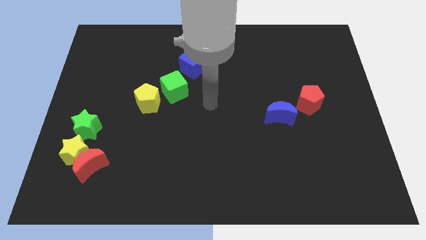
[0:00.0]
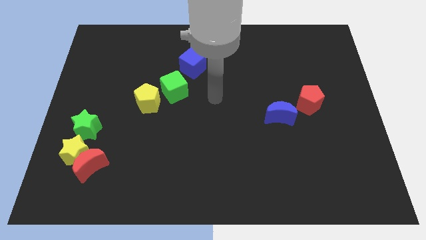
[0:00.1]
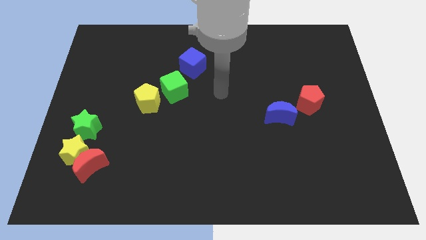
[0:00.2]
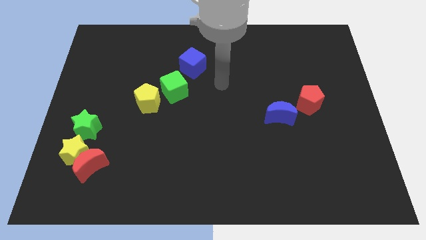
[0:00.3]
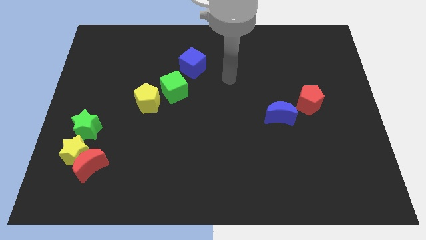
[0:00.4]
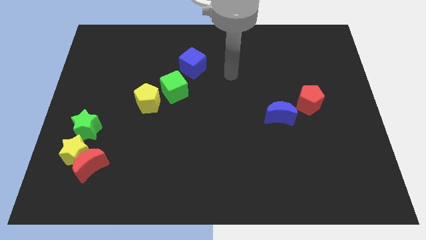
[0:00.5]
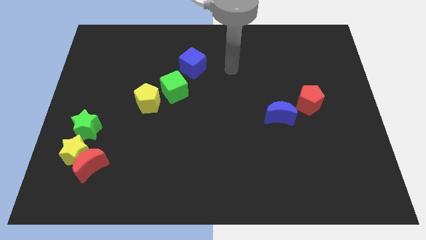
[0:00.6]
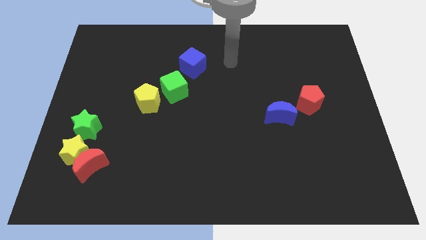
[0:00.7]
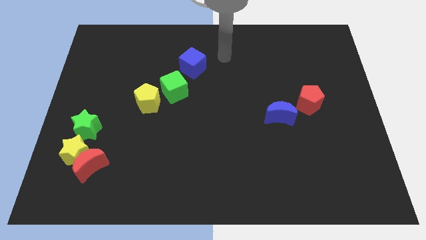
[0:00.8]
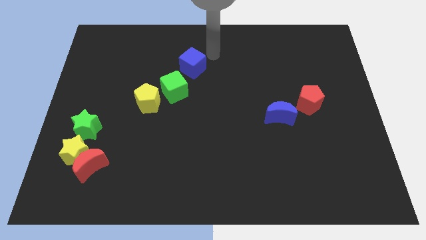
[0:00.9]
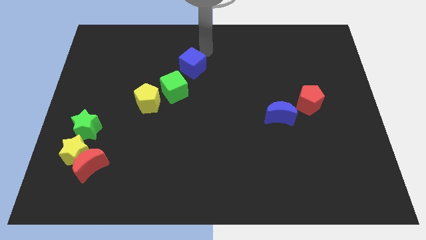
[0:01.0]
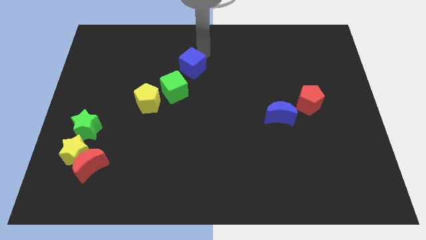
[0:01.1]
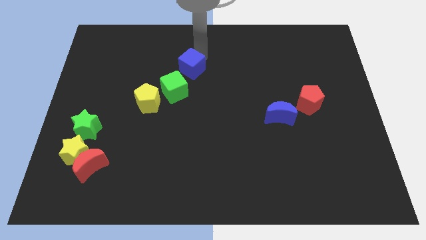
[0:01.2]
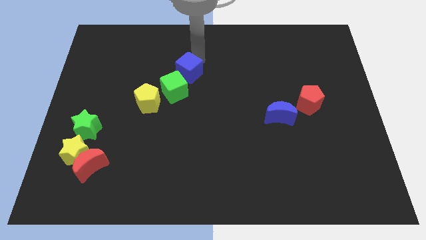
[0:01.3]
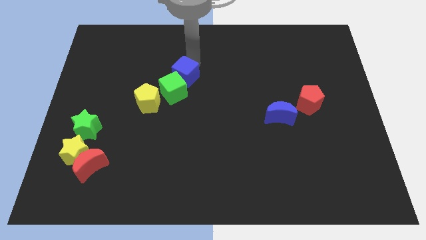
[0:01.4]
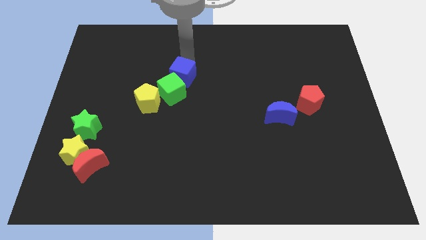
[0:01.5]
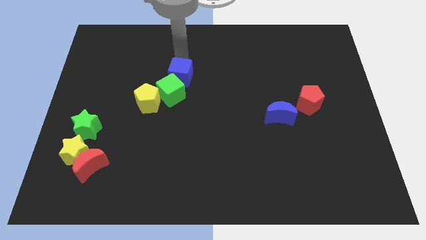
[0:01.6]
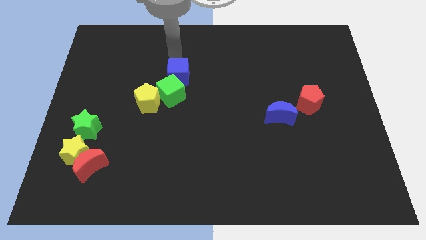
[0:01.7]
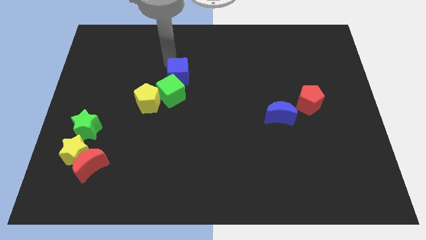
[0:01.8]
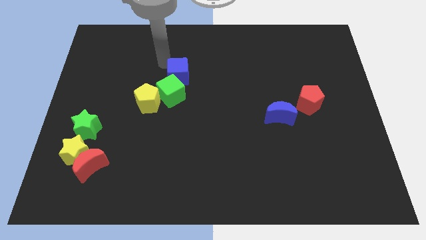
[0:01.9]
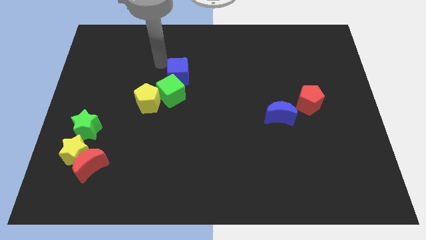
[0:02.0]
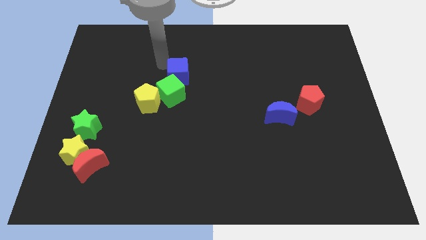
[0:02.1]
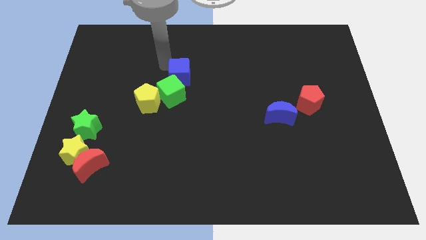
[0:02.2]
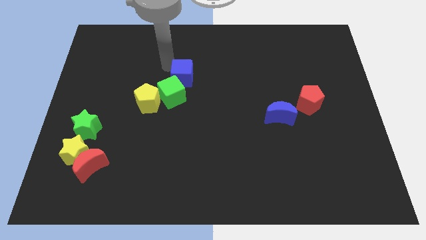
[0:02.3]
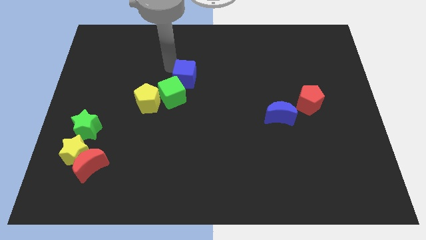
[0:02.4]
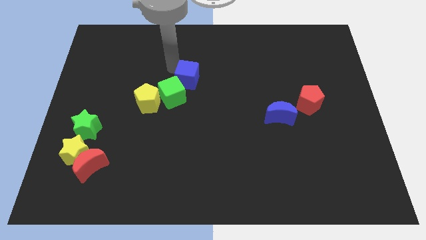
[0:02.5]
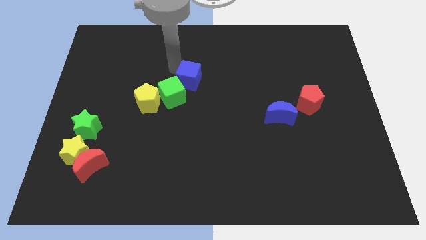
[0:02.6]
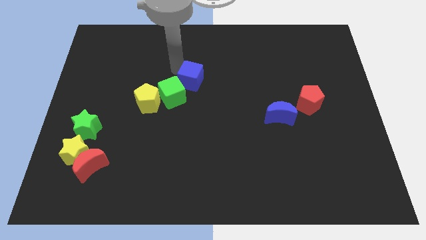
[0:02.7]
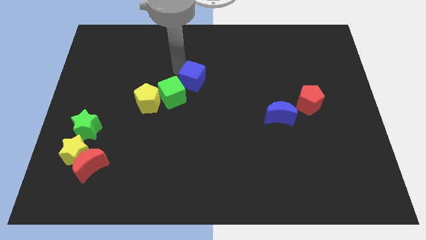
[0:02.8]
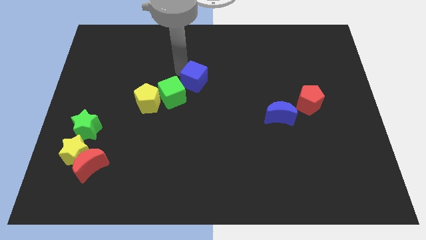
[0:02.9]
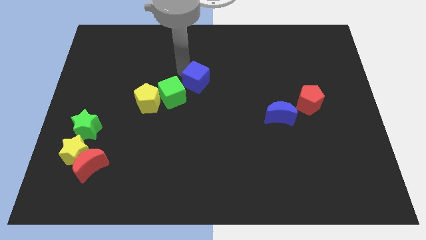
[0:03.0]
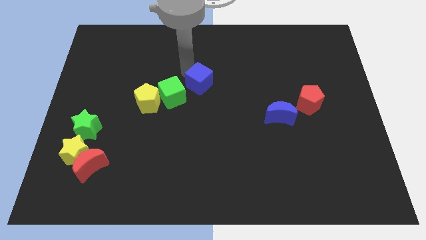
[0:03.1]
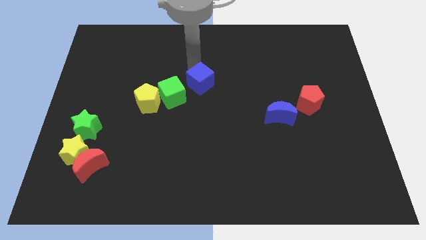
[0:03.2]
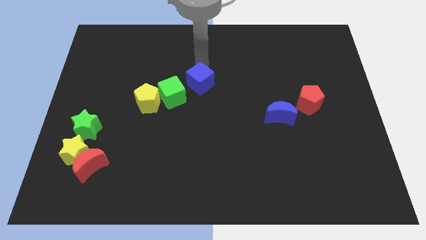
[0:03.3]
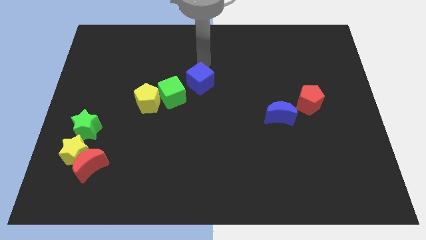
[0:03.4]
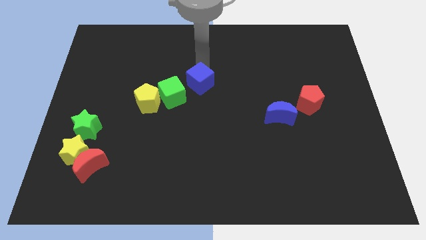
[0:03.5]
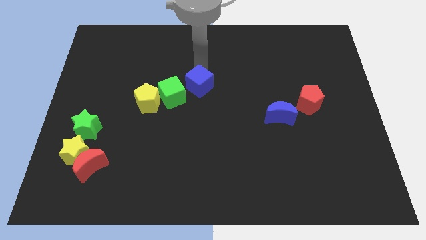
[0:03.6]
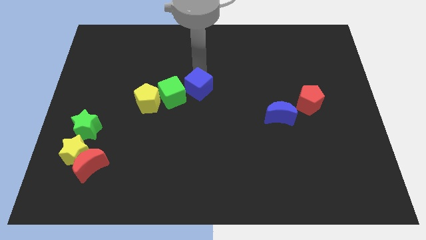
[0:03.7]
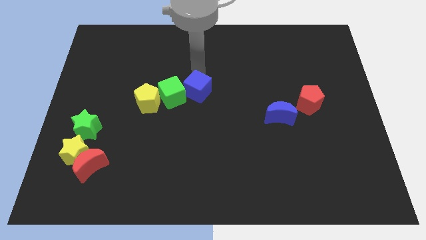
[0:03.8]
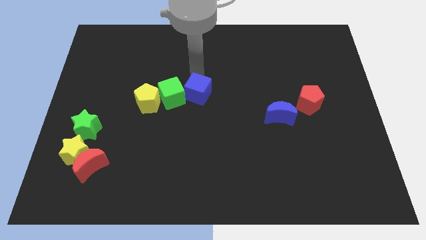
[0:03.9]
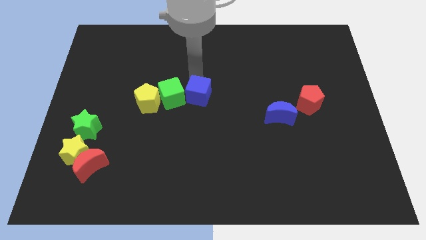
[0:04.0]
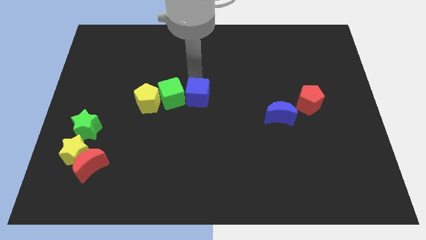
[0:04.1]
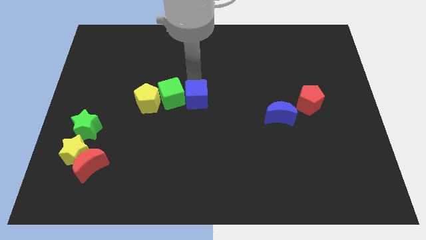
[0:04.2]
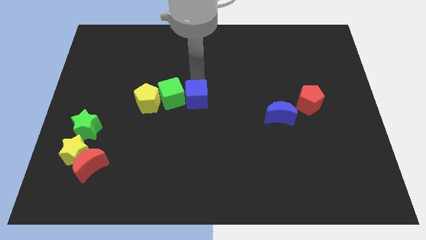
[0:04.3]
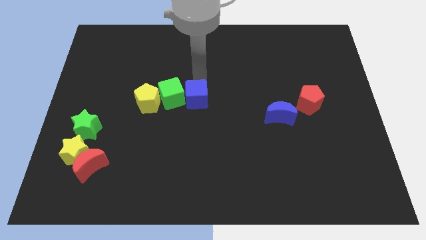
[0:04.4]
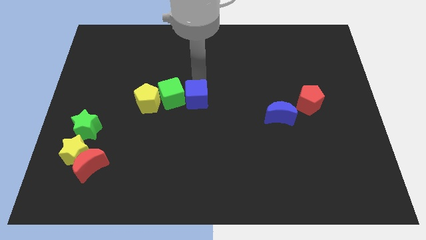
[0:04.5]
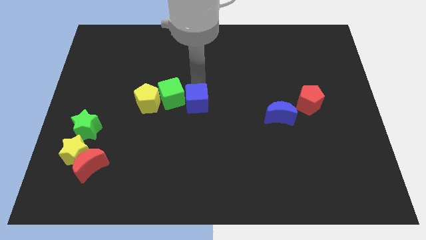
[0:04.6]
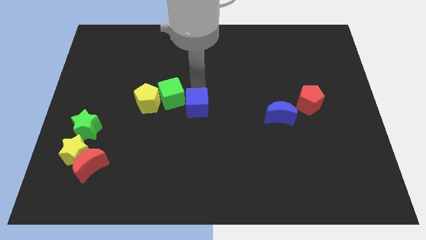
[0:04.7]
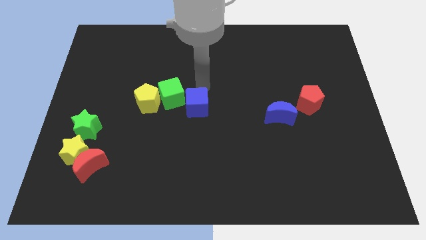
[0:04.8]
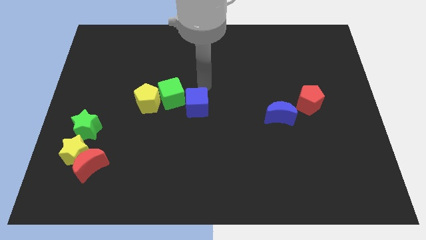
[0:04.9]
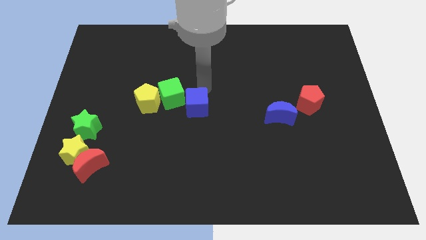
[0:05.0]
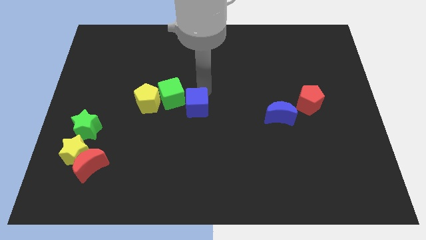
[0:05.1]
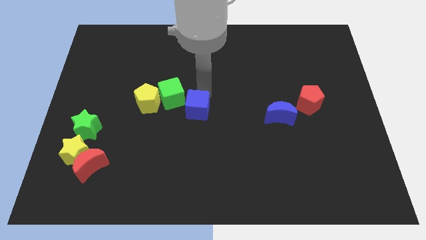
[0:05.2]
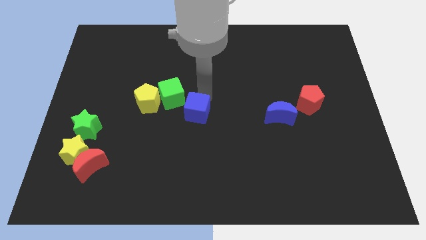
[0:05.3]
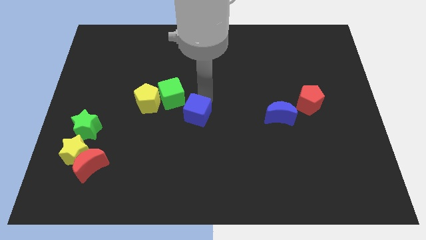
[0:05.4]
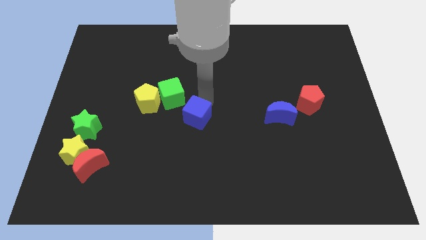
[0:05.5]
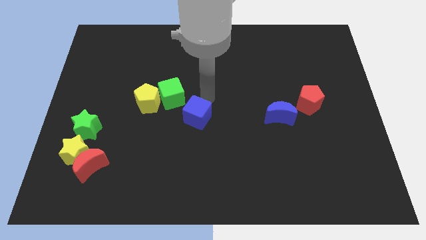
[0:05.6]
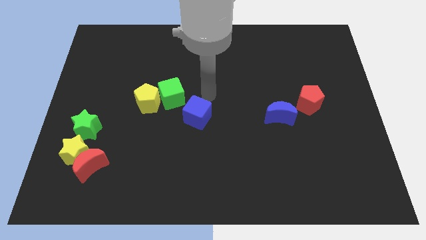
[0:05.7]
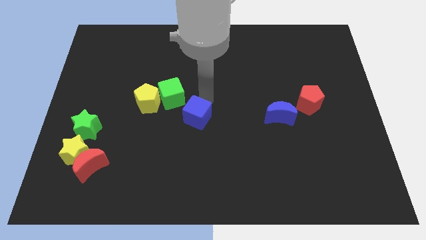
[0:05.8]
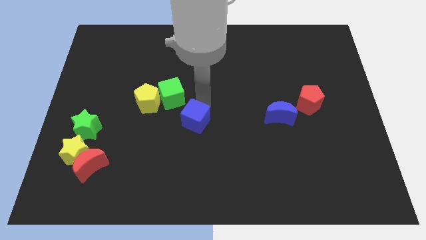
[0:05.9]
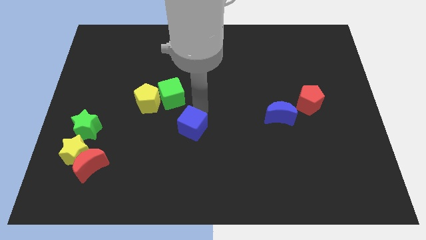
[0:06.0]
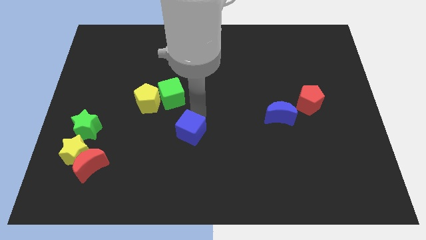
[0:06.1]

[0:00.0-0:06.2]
slide the blue cube downwards

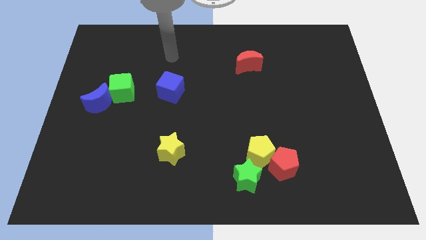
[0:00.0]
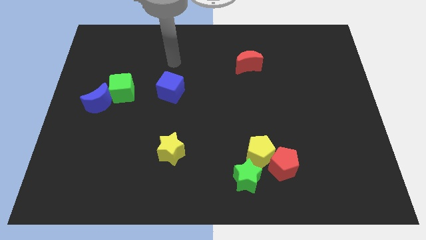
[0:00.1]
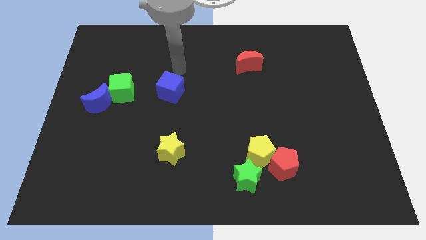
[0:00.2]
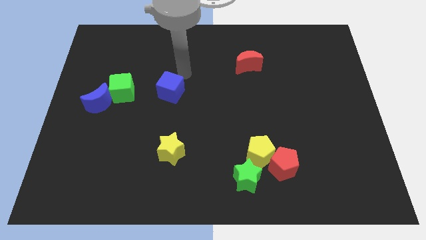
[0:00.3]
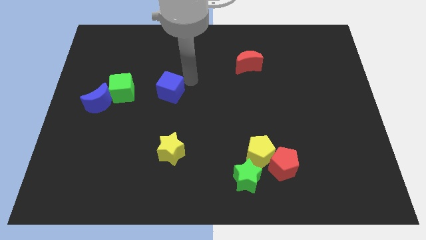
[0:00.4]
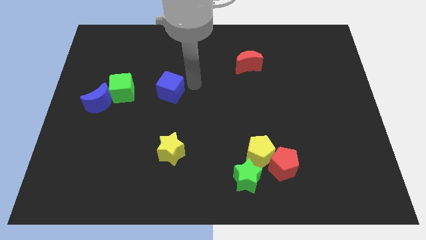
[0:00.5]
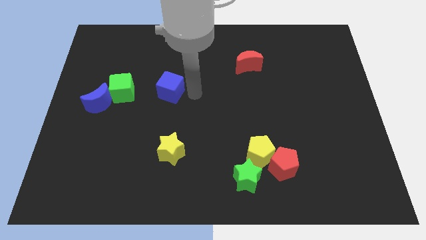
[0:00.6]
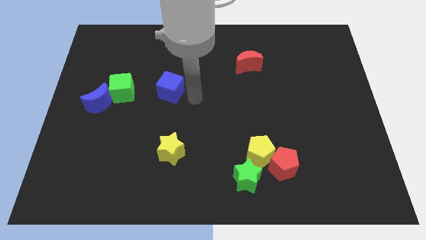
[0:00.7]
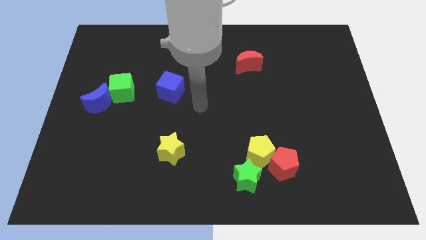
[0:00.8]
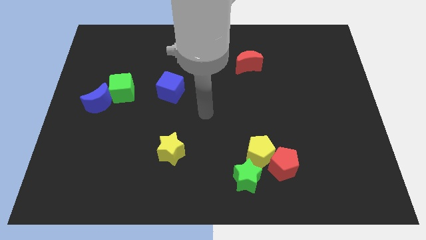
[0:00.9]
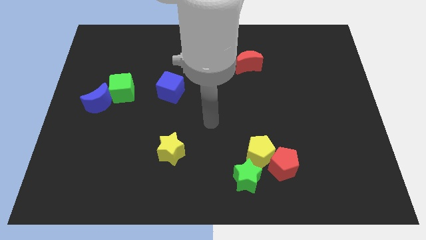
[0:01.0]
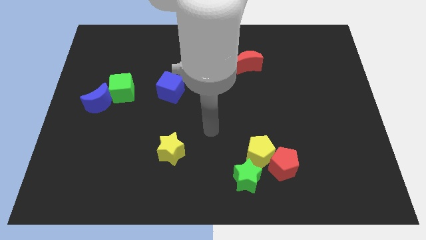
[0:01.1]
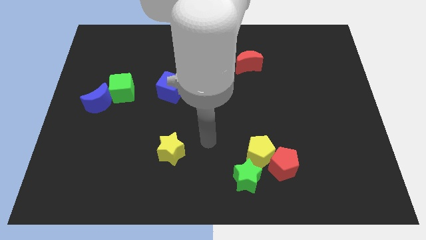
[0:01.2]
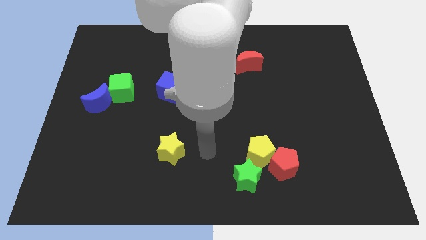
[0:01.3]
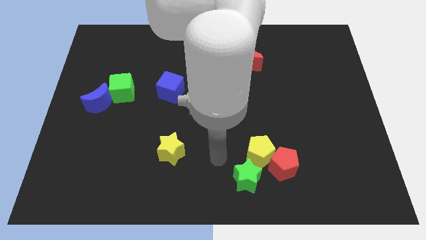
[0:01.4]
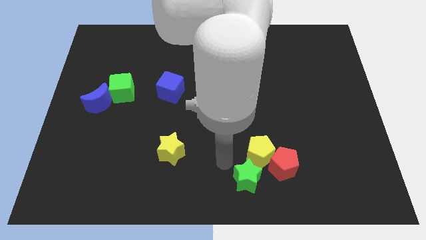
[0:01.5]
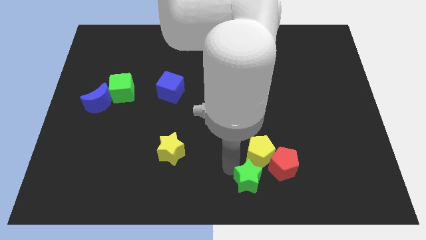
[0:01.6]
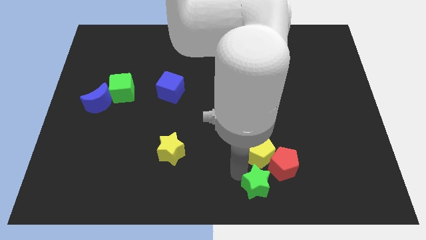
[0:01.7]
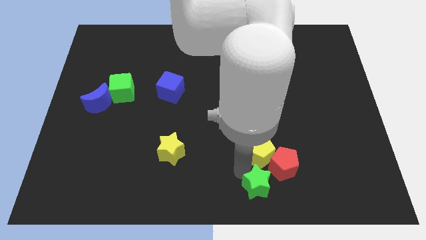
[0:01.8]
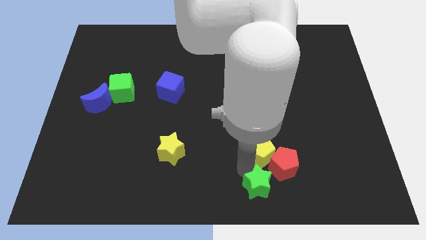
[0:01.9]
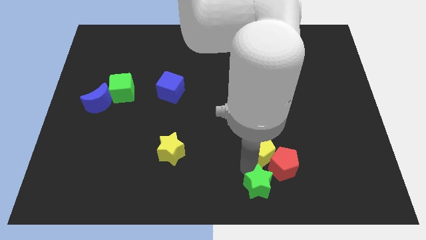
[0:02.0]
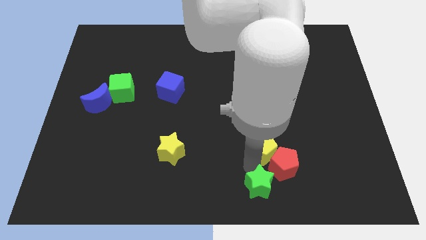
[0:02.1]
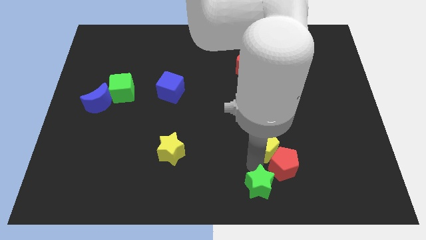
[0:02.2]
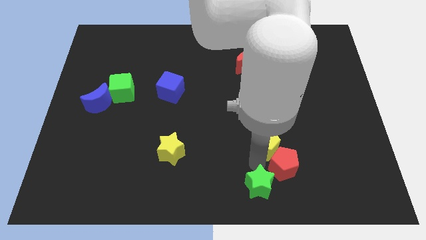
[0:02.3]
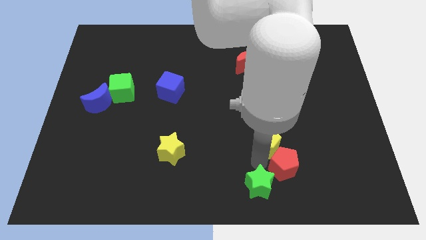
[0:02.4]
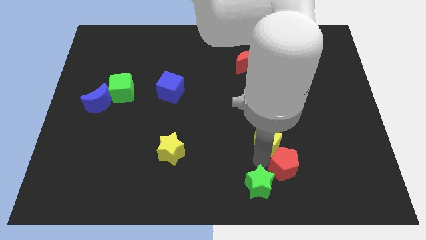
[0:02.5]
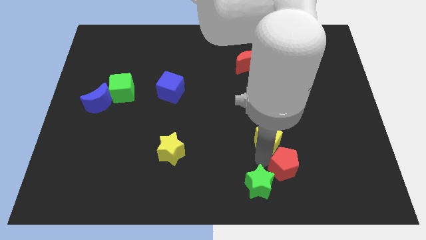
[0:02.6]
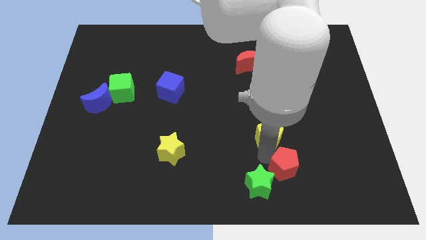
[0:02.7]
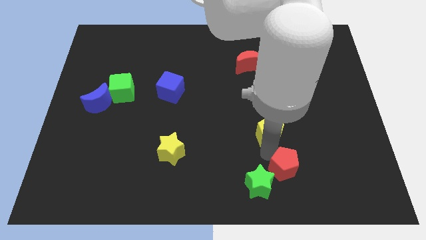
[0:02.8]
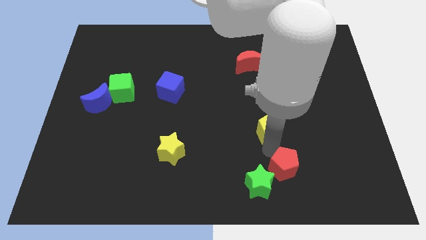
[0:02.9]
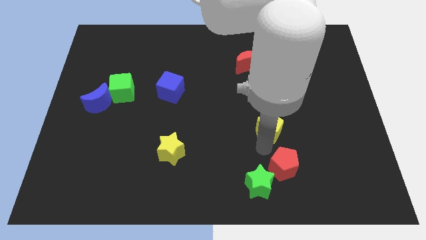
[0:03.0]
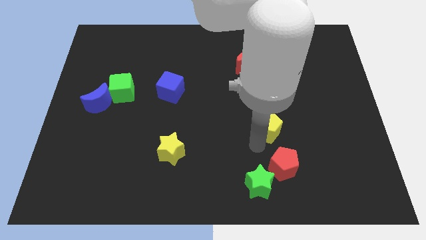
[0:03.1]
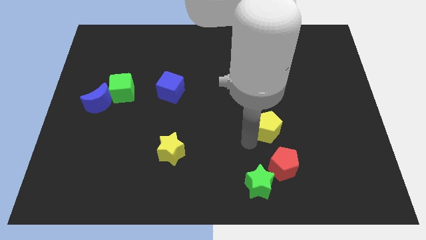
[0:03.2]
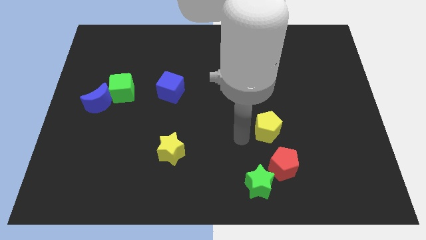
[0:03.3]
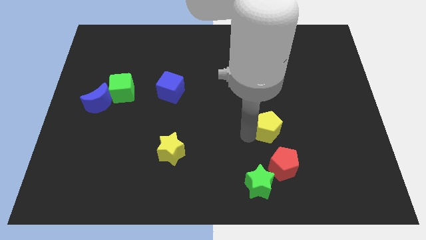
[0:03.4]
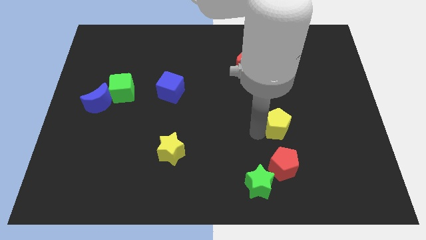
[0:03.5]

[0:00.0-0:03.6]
move the yellow pentagon upwards and to the right diagonally a little bit
